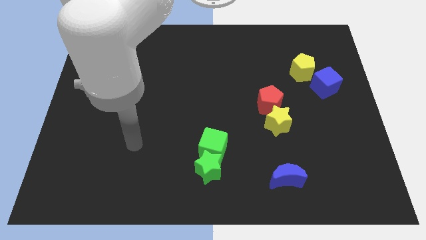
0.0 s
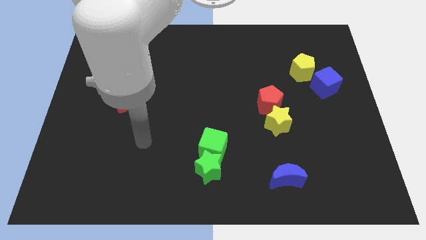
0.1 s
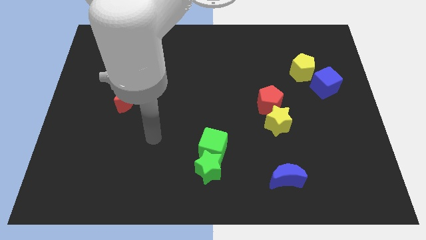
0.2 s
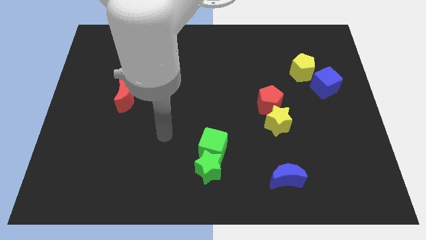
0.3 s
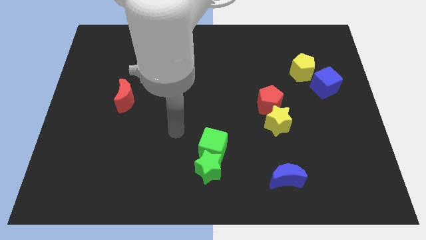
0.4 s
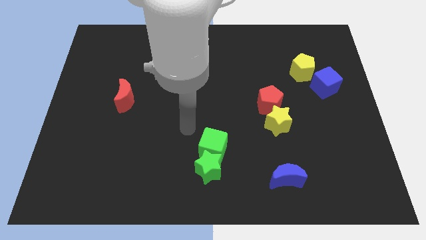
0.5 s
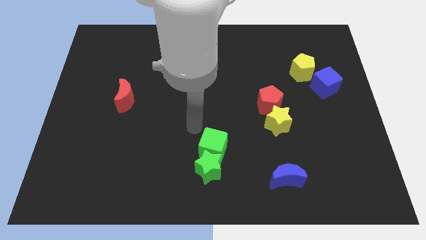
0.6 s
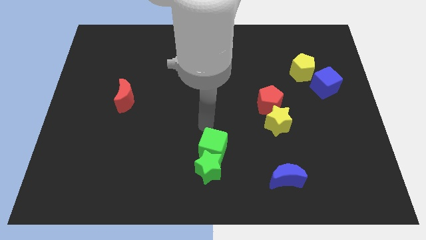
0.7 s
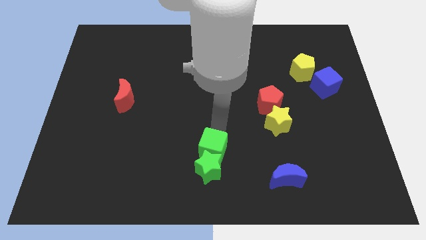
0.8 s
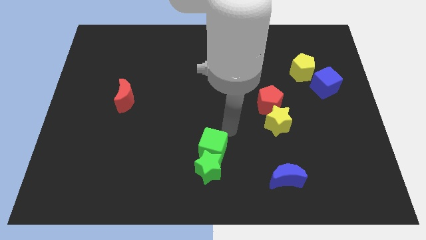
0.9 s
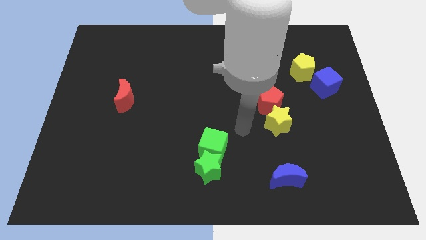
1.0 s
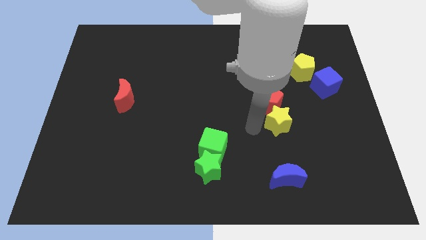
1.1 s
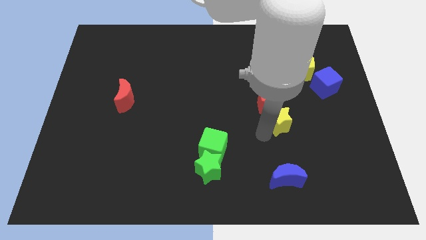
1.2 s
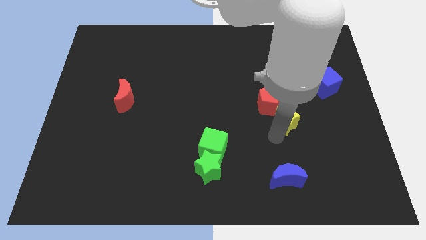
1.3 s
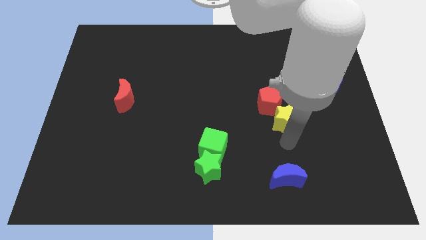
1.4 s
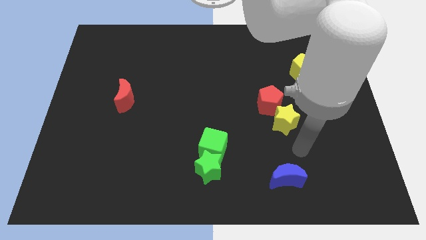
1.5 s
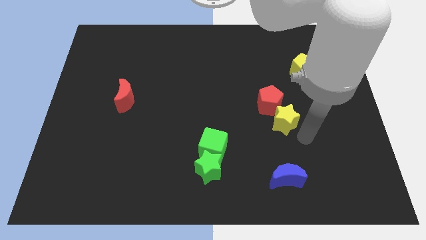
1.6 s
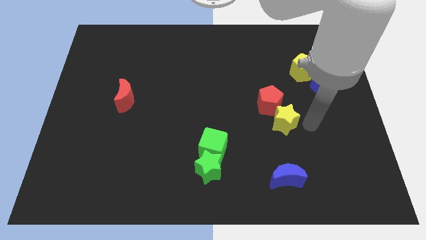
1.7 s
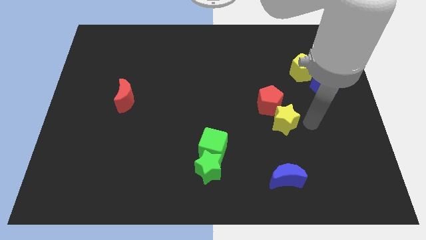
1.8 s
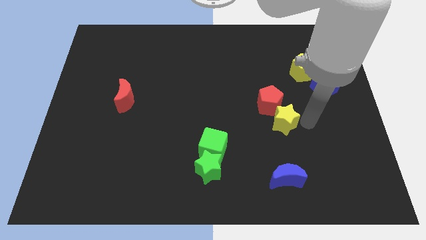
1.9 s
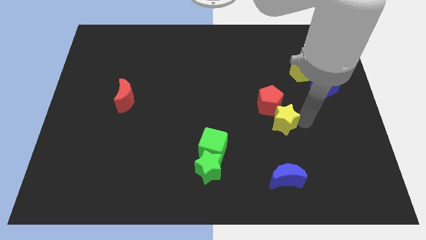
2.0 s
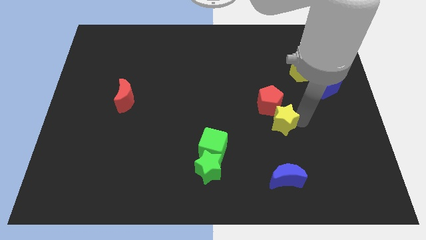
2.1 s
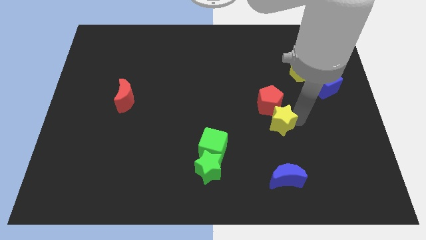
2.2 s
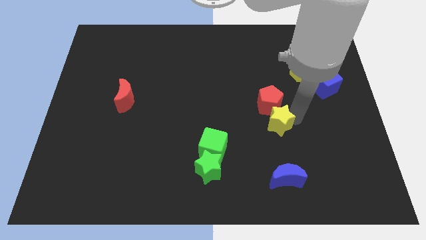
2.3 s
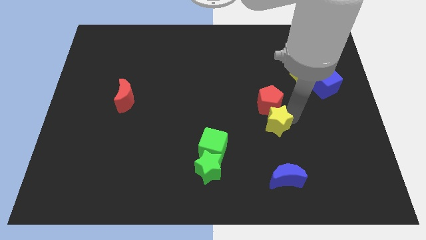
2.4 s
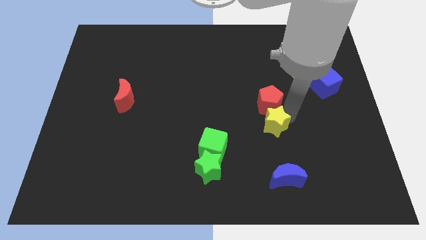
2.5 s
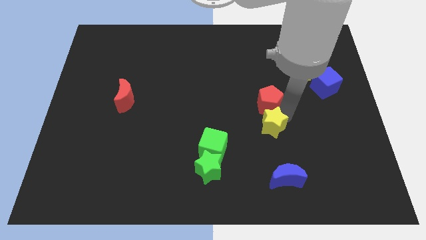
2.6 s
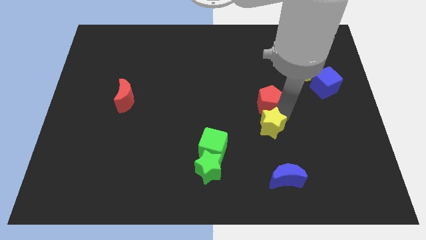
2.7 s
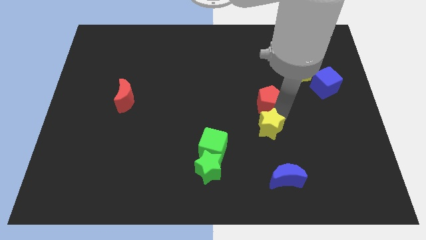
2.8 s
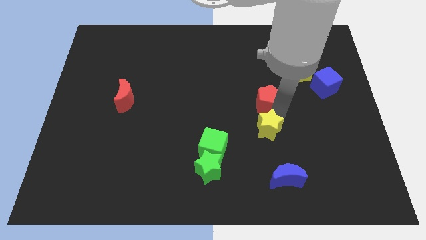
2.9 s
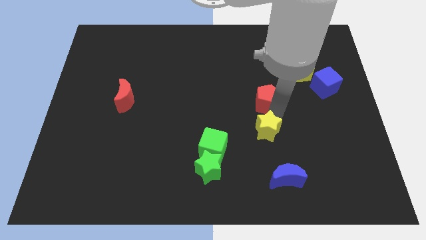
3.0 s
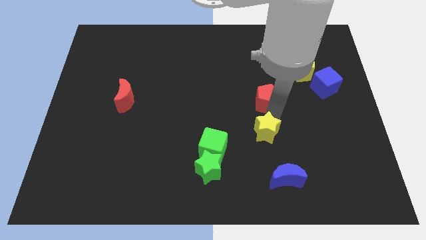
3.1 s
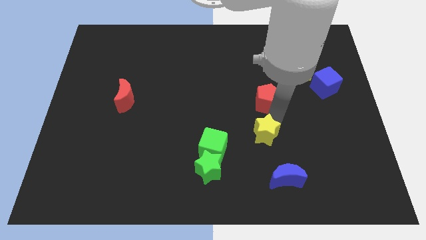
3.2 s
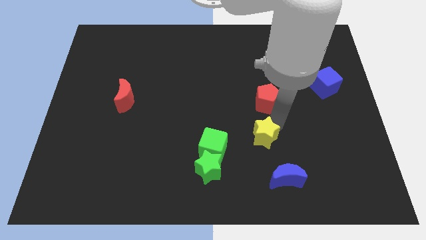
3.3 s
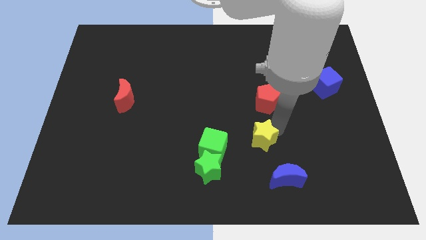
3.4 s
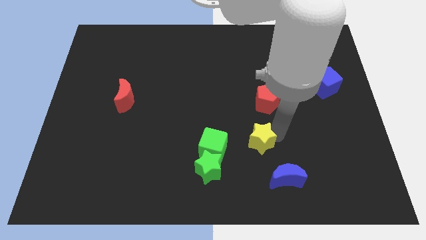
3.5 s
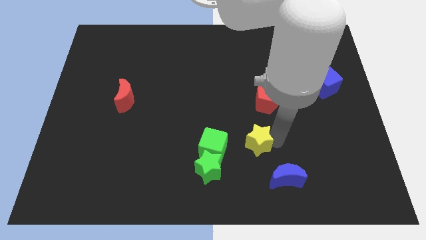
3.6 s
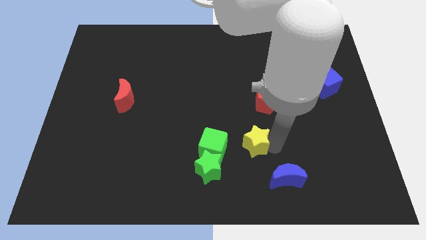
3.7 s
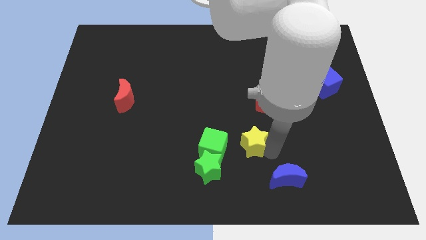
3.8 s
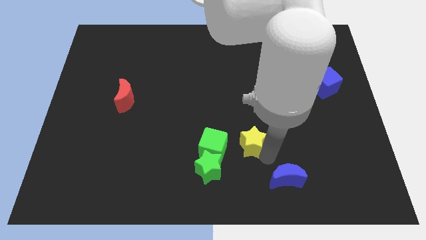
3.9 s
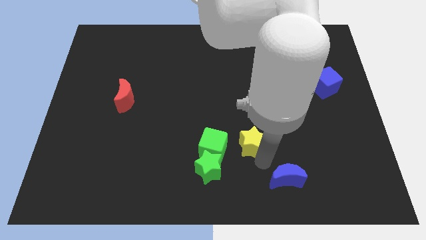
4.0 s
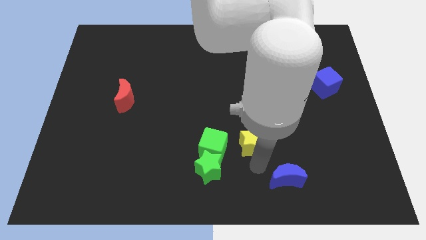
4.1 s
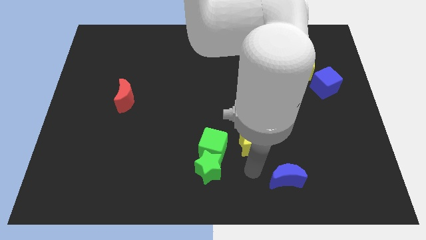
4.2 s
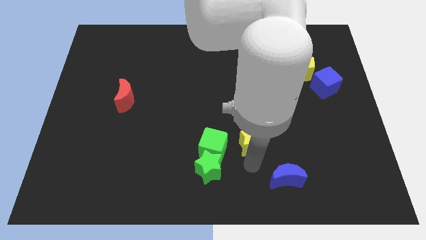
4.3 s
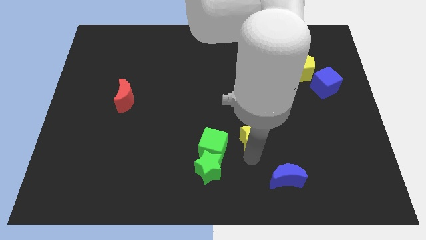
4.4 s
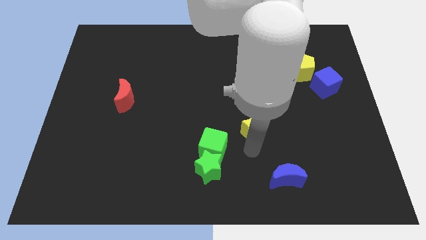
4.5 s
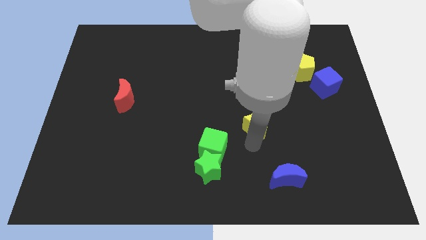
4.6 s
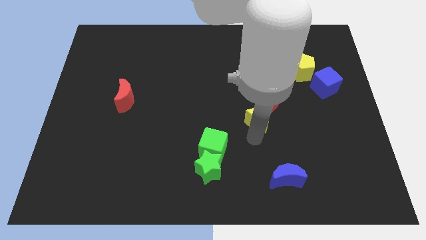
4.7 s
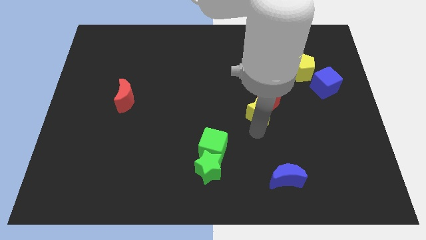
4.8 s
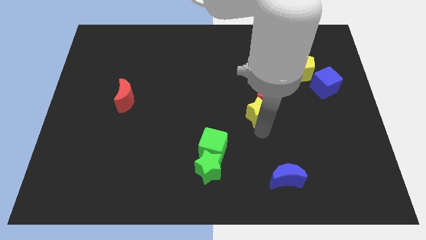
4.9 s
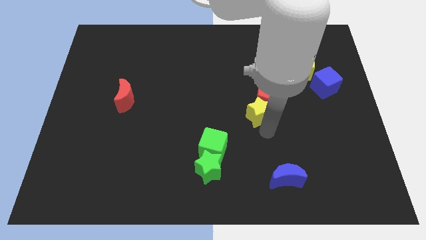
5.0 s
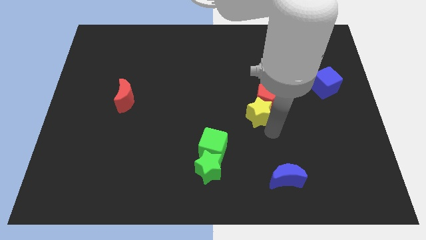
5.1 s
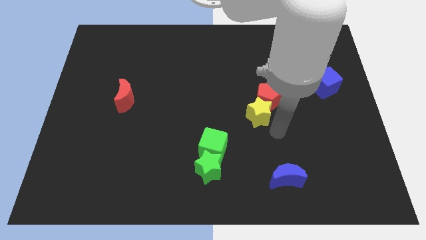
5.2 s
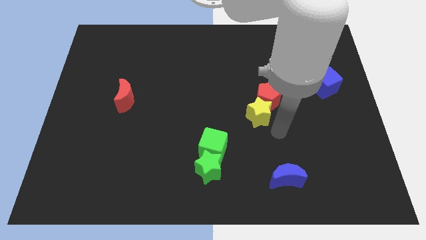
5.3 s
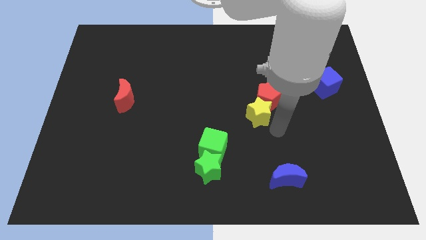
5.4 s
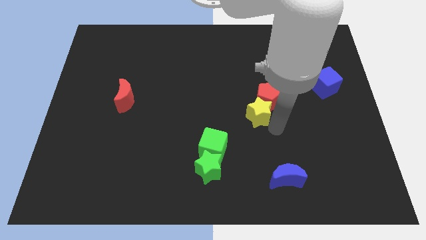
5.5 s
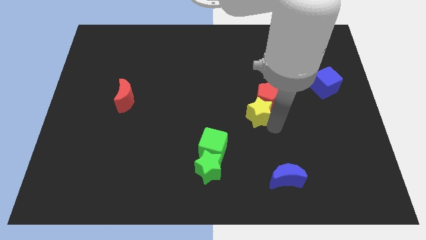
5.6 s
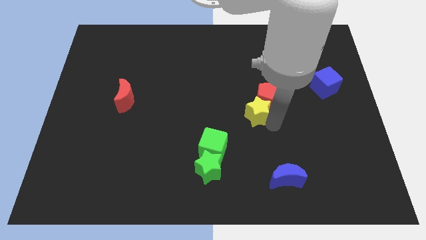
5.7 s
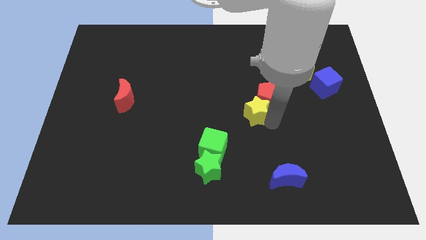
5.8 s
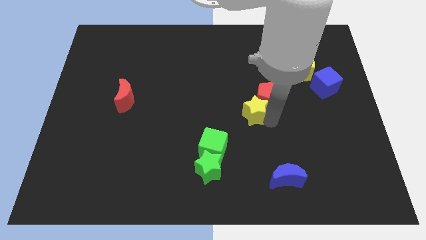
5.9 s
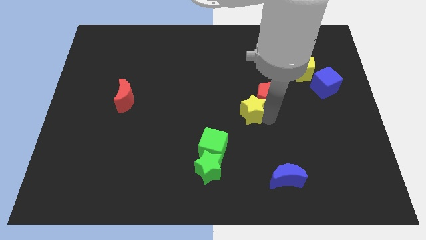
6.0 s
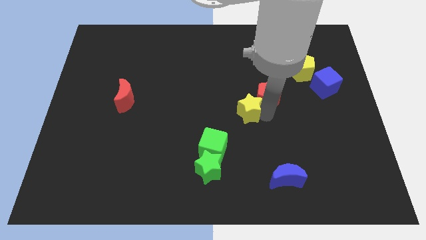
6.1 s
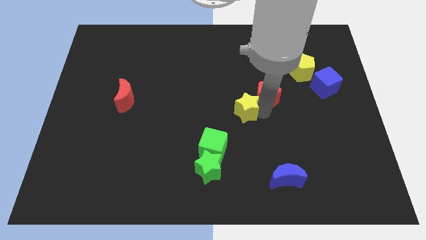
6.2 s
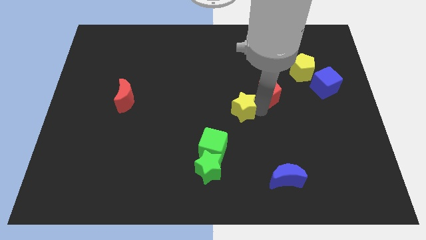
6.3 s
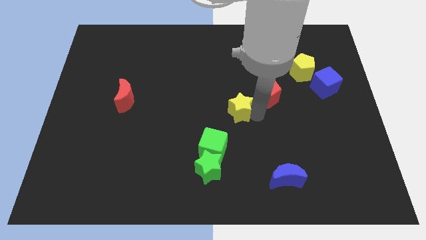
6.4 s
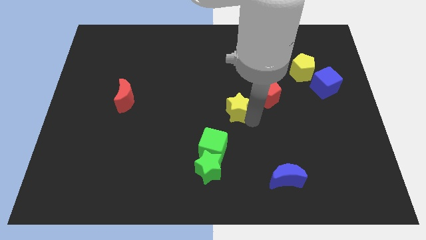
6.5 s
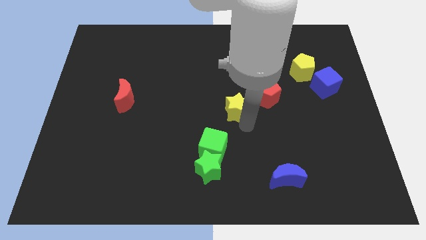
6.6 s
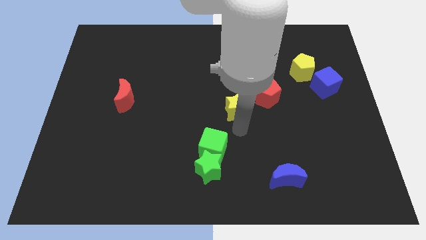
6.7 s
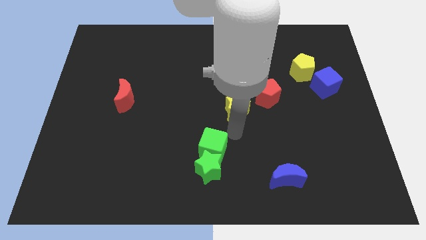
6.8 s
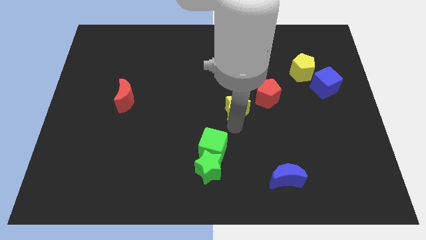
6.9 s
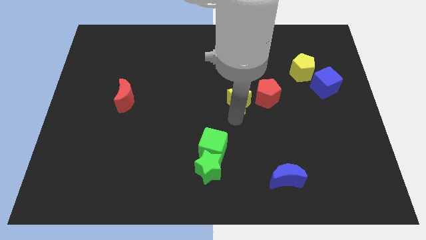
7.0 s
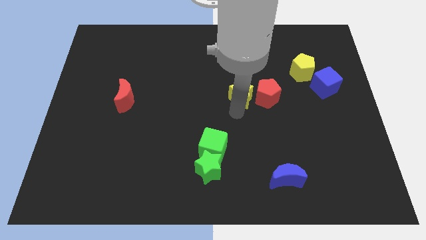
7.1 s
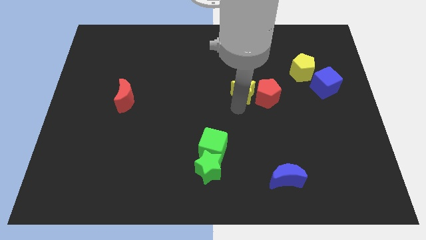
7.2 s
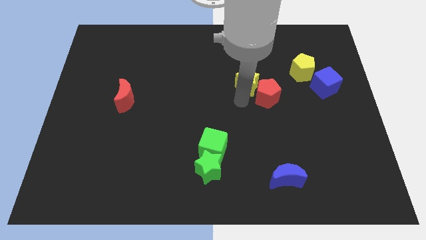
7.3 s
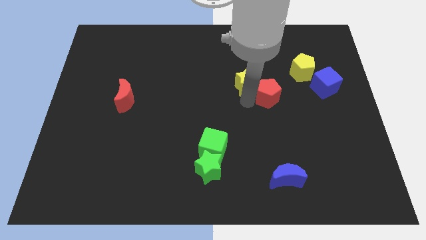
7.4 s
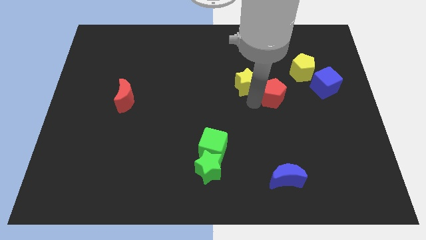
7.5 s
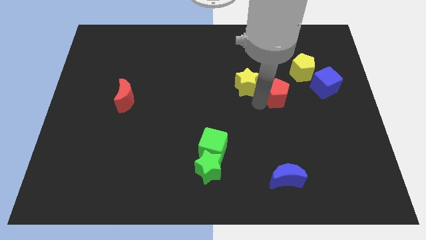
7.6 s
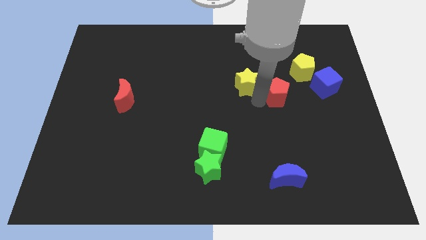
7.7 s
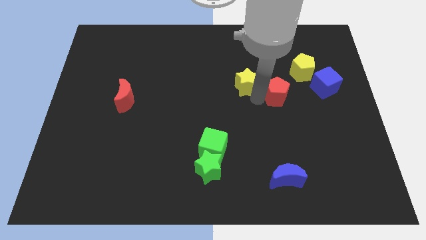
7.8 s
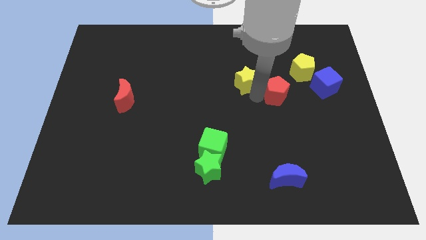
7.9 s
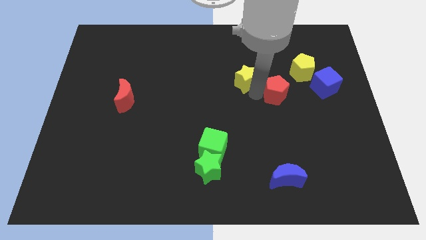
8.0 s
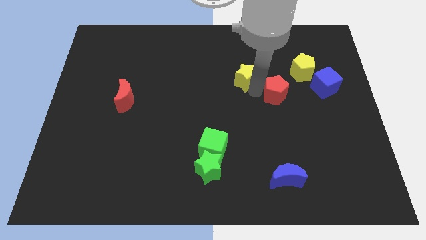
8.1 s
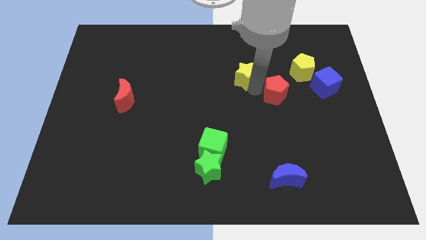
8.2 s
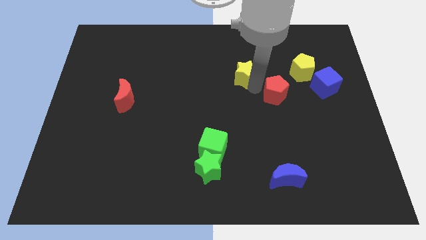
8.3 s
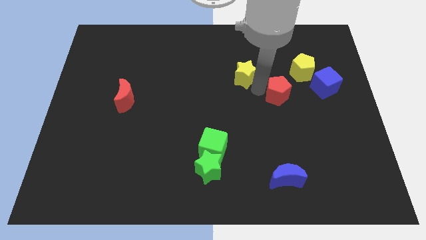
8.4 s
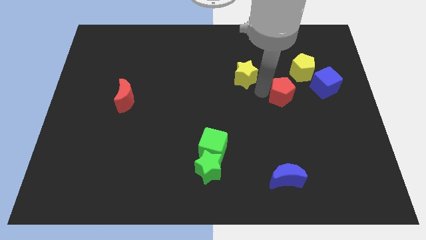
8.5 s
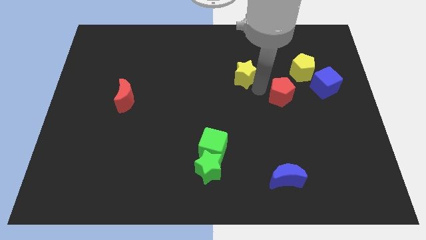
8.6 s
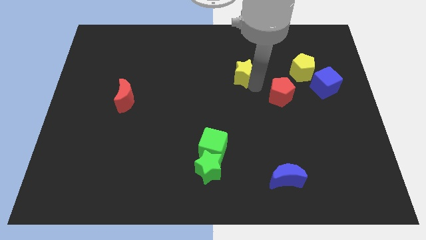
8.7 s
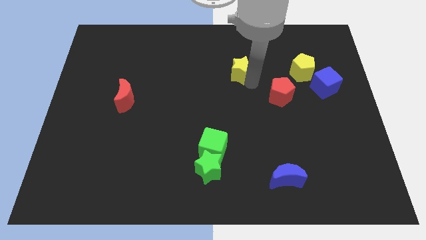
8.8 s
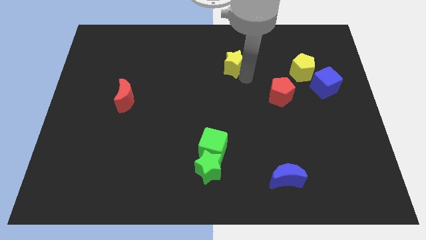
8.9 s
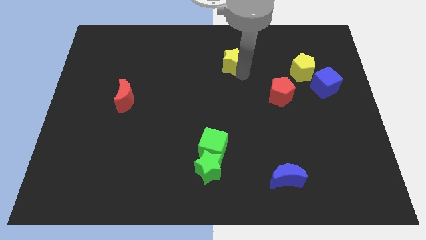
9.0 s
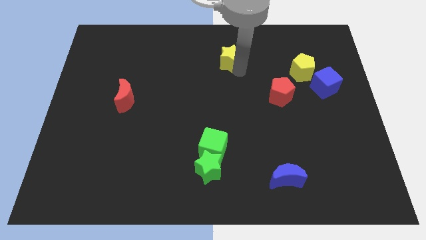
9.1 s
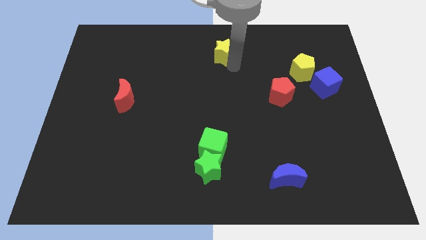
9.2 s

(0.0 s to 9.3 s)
move the yellow star to the top
